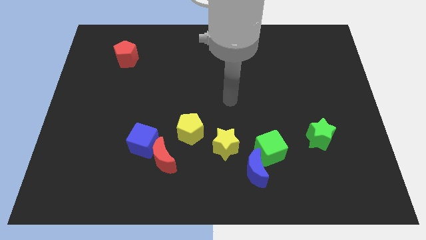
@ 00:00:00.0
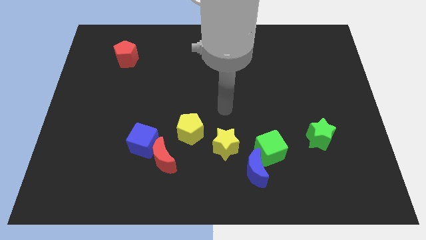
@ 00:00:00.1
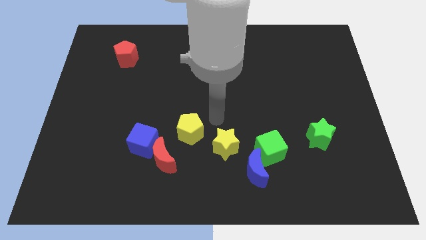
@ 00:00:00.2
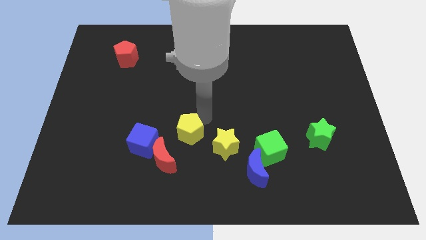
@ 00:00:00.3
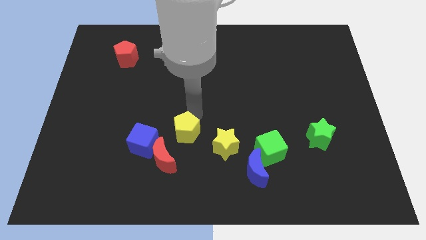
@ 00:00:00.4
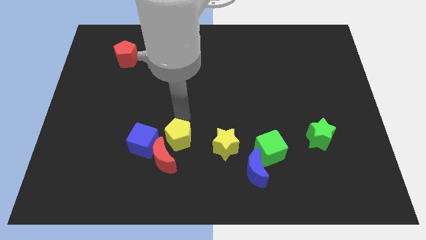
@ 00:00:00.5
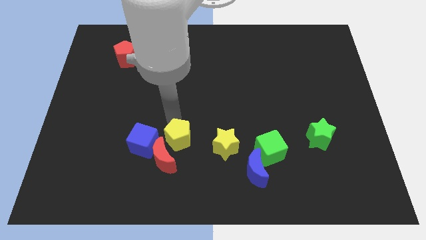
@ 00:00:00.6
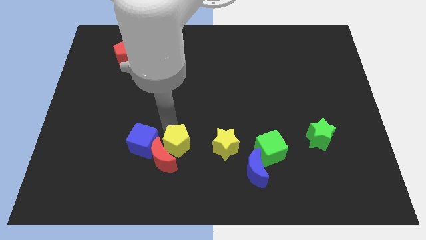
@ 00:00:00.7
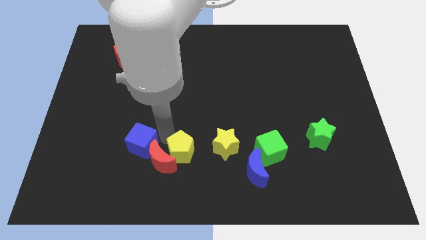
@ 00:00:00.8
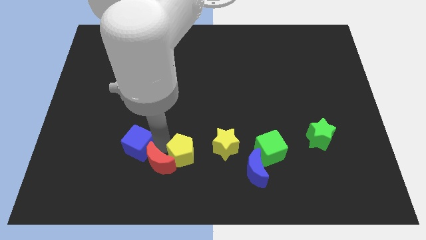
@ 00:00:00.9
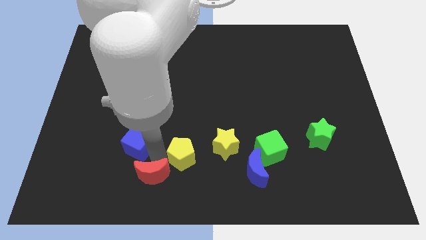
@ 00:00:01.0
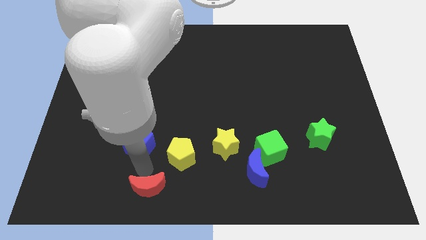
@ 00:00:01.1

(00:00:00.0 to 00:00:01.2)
separate the blue cube from the red moon

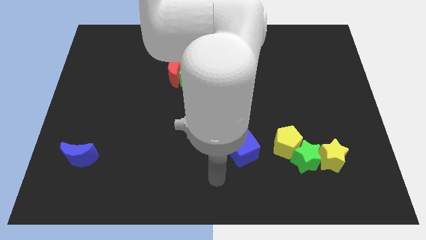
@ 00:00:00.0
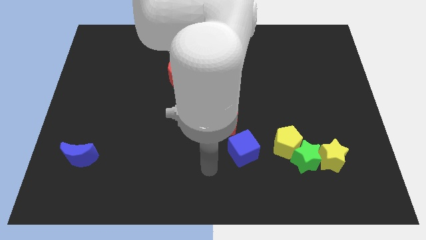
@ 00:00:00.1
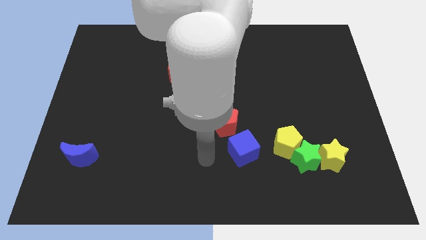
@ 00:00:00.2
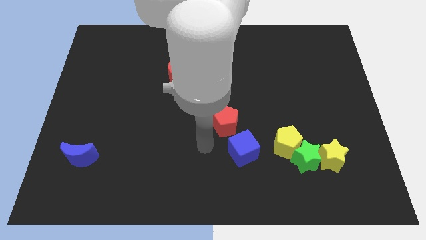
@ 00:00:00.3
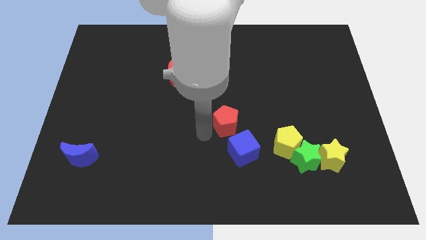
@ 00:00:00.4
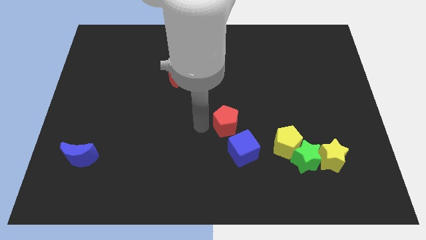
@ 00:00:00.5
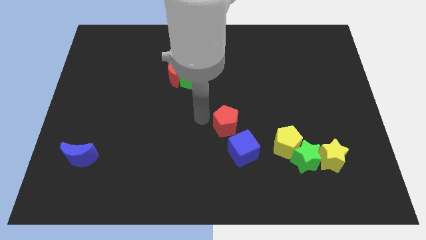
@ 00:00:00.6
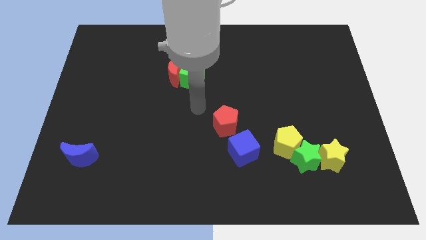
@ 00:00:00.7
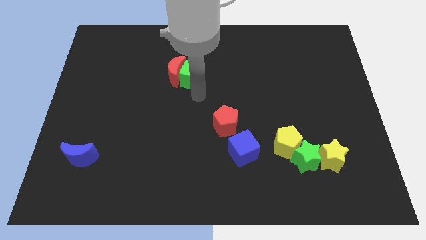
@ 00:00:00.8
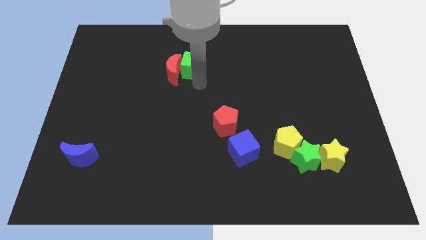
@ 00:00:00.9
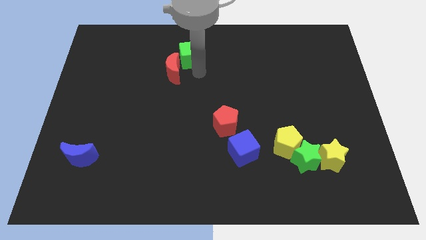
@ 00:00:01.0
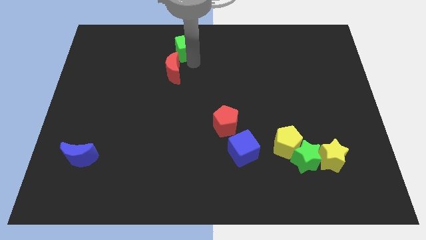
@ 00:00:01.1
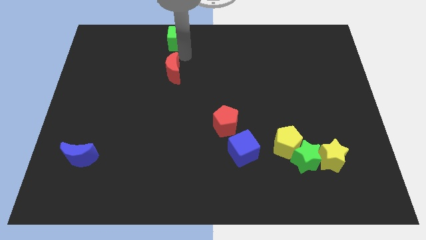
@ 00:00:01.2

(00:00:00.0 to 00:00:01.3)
move the red moon away from the green cube

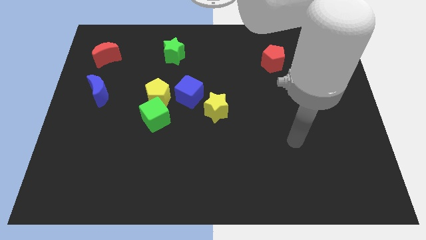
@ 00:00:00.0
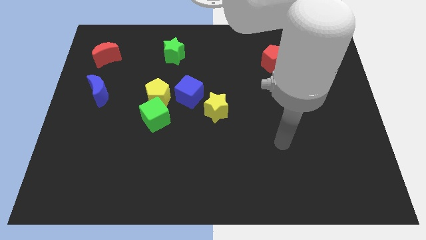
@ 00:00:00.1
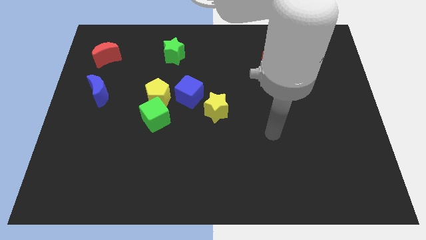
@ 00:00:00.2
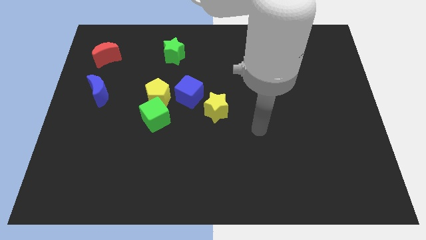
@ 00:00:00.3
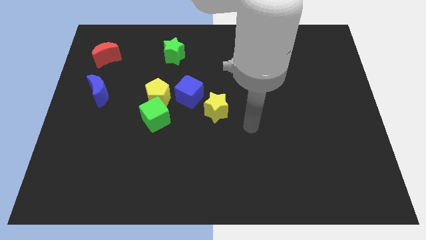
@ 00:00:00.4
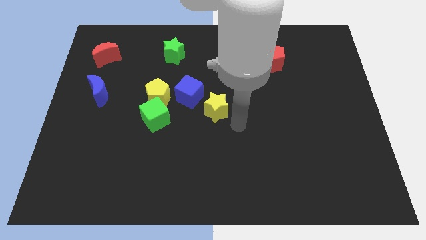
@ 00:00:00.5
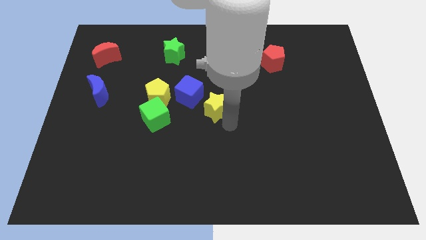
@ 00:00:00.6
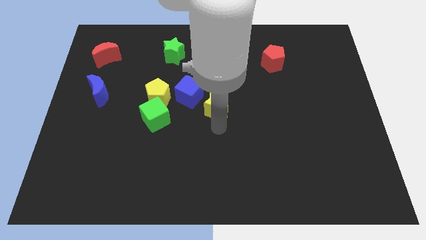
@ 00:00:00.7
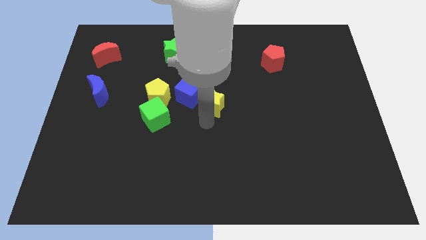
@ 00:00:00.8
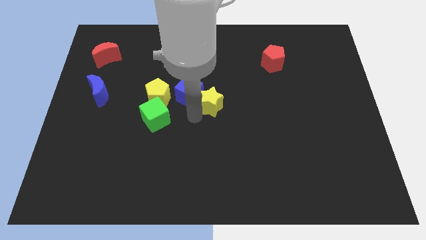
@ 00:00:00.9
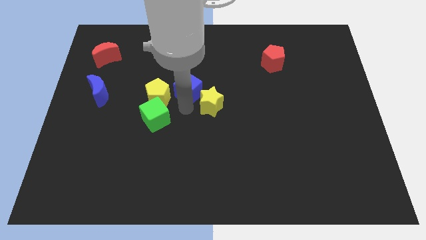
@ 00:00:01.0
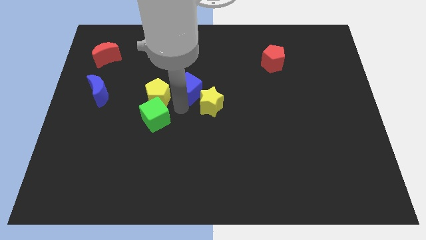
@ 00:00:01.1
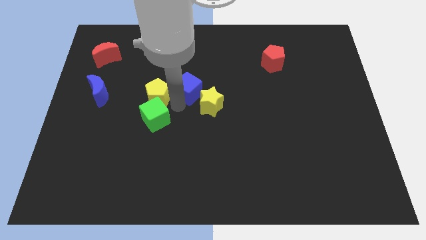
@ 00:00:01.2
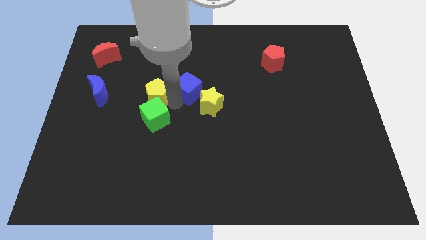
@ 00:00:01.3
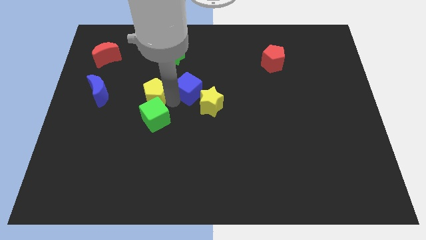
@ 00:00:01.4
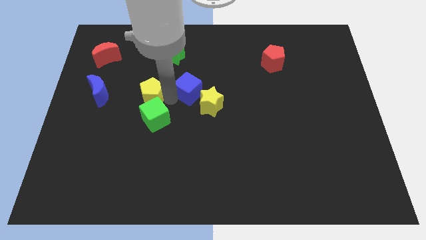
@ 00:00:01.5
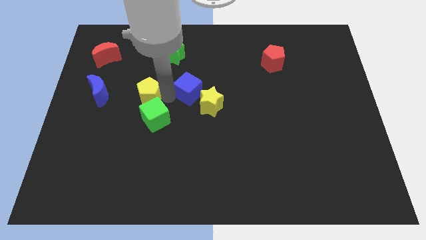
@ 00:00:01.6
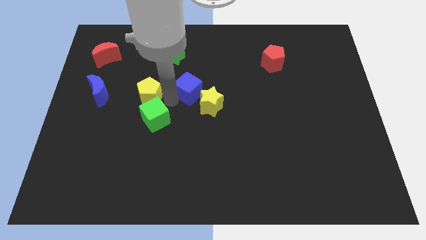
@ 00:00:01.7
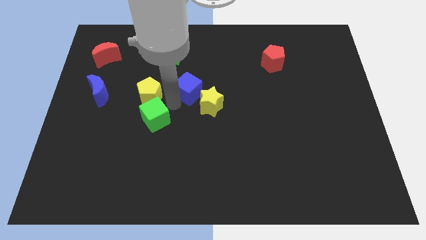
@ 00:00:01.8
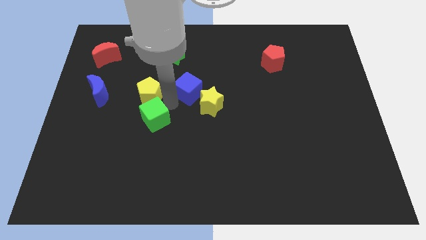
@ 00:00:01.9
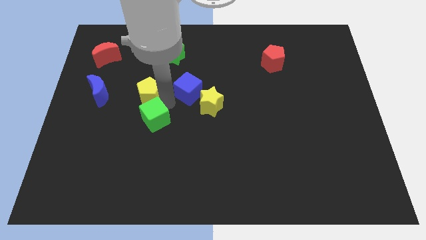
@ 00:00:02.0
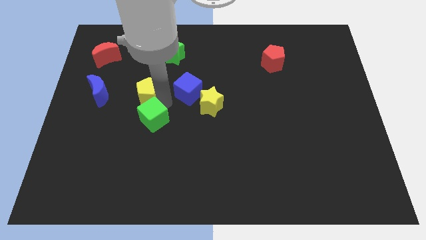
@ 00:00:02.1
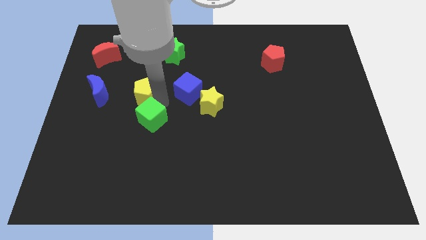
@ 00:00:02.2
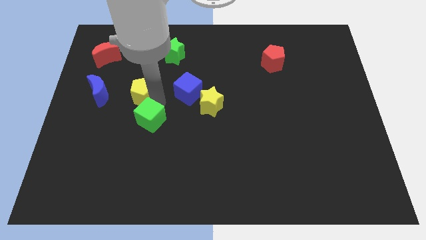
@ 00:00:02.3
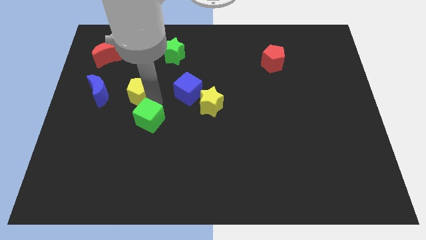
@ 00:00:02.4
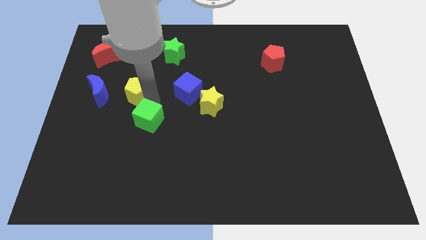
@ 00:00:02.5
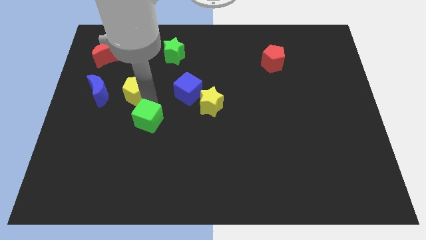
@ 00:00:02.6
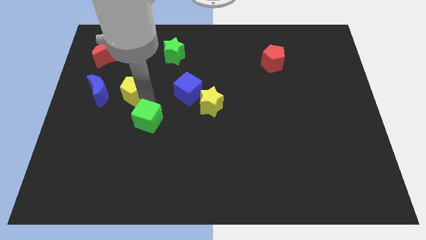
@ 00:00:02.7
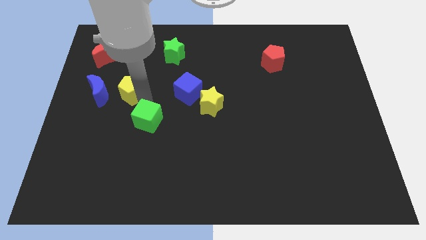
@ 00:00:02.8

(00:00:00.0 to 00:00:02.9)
pull the yellow pentagon apart from the green cube and blue cube

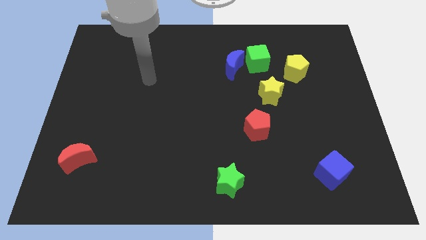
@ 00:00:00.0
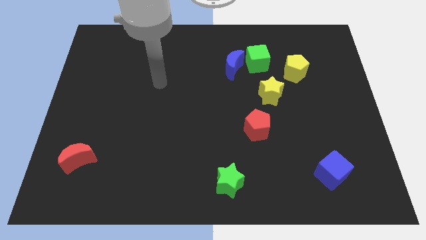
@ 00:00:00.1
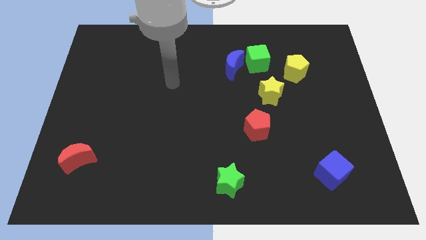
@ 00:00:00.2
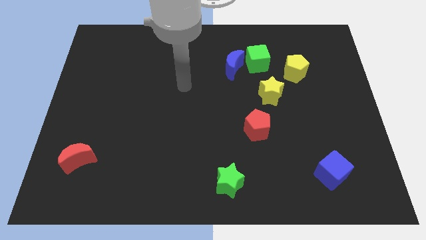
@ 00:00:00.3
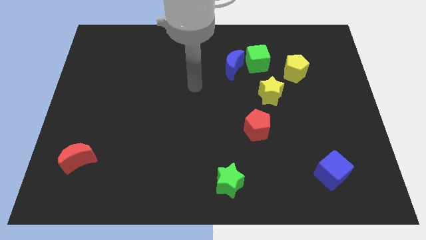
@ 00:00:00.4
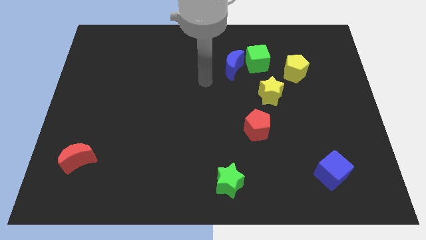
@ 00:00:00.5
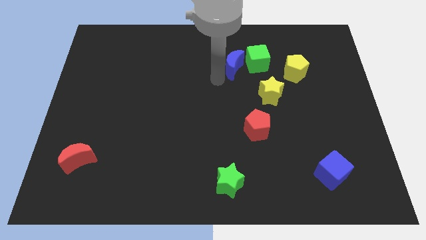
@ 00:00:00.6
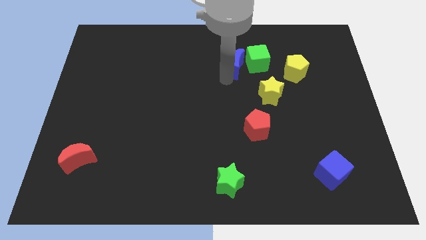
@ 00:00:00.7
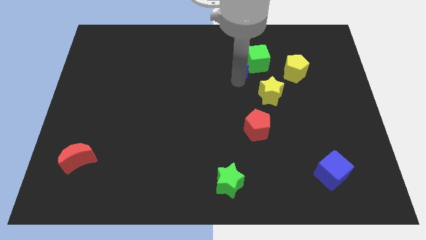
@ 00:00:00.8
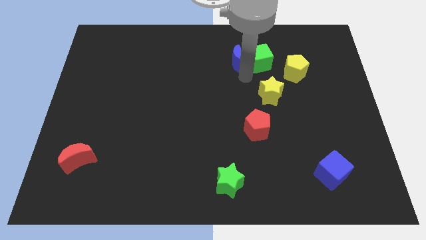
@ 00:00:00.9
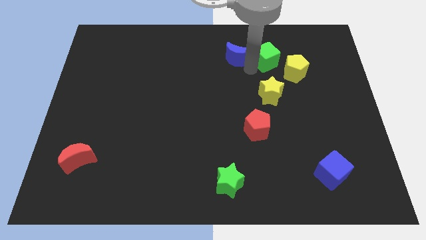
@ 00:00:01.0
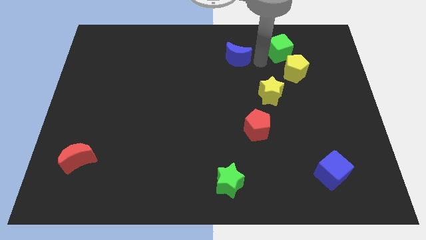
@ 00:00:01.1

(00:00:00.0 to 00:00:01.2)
move the blue moon away from the green cube

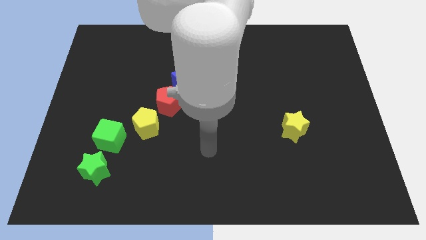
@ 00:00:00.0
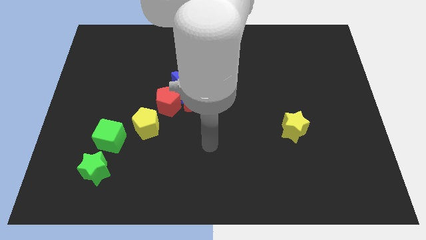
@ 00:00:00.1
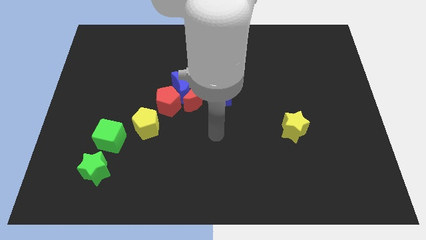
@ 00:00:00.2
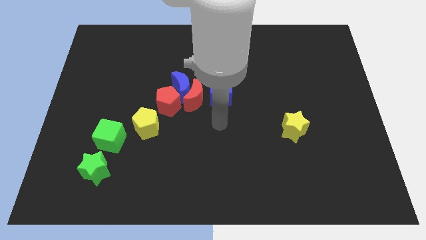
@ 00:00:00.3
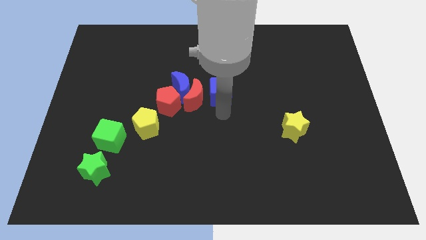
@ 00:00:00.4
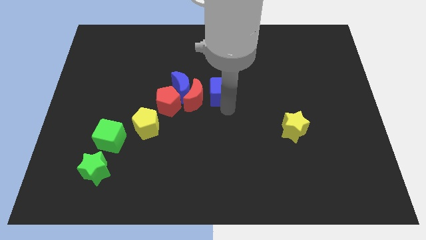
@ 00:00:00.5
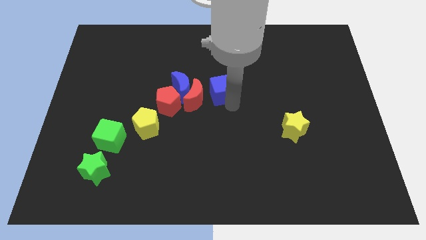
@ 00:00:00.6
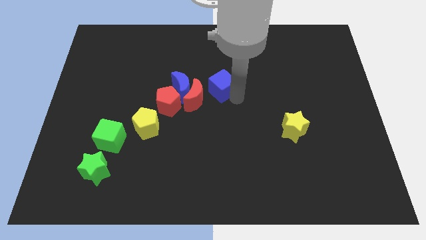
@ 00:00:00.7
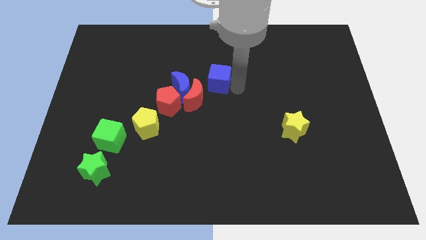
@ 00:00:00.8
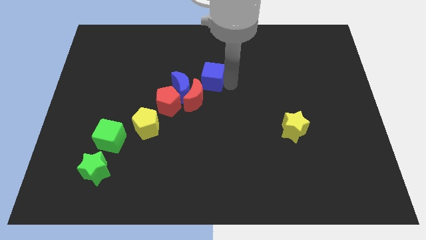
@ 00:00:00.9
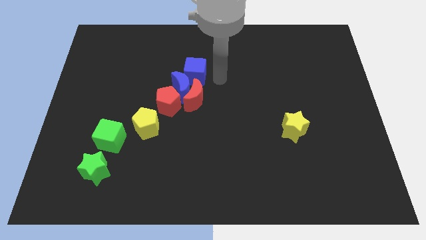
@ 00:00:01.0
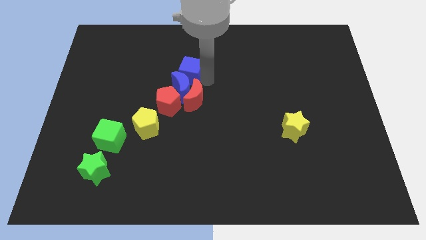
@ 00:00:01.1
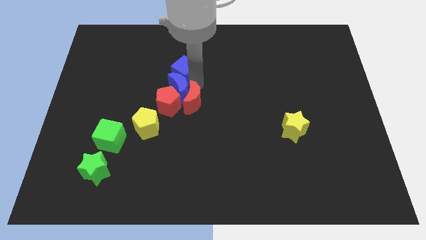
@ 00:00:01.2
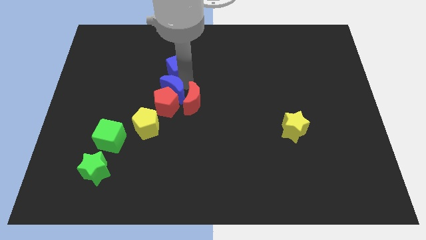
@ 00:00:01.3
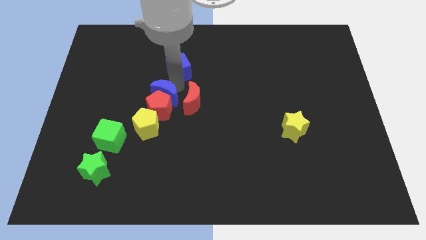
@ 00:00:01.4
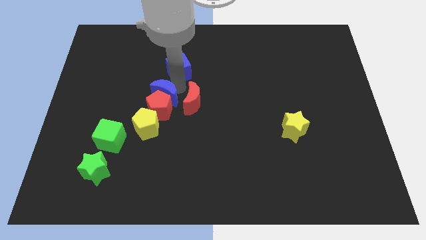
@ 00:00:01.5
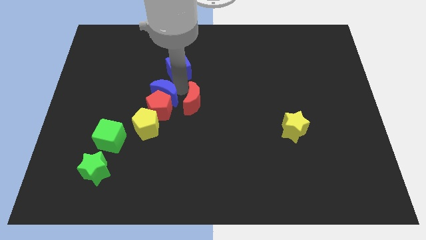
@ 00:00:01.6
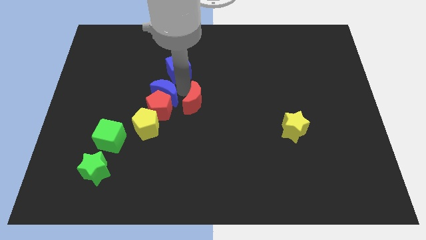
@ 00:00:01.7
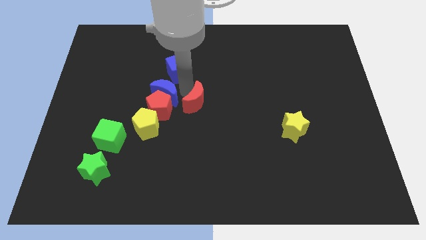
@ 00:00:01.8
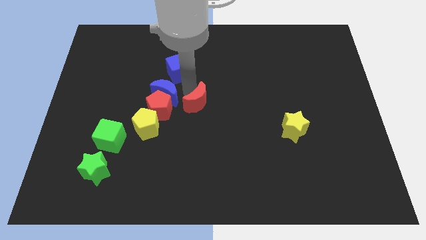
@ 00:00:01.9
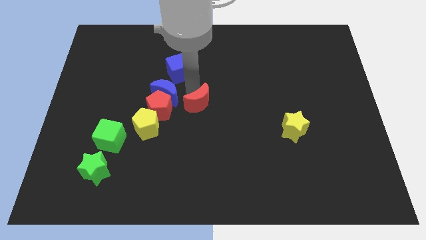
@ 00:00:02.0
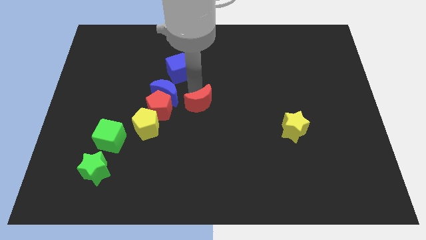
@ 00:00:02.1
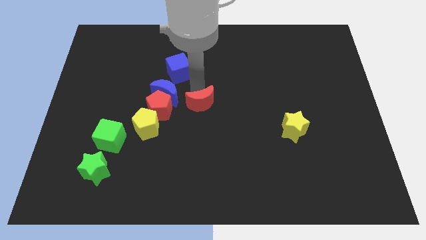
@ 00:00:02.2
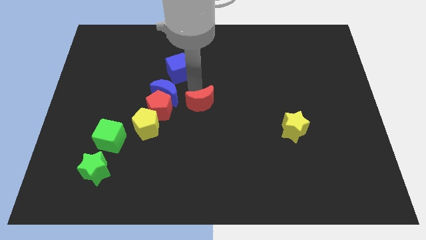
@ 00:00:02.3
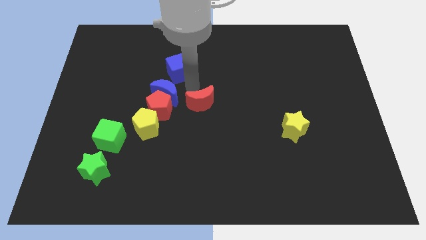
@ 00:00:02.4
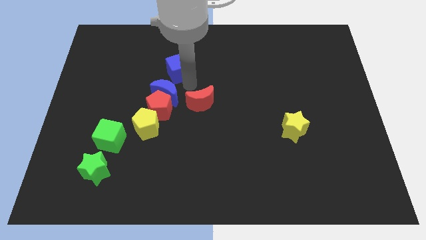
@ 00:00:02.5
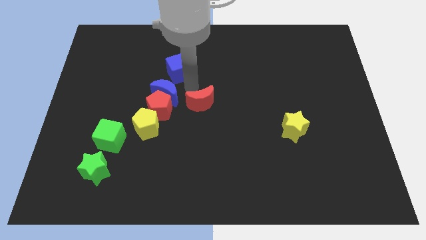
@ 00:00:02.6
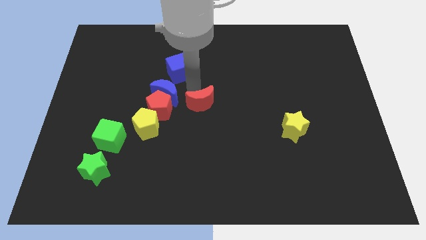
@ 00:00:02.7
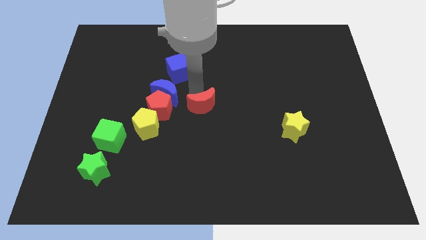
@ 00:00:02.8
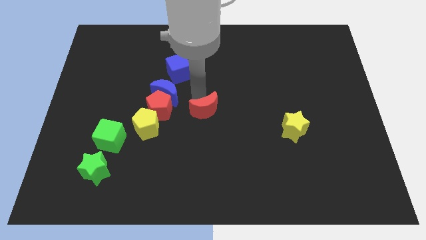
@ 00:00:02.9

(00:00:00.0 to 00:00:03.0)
separate the red moon from the clump
